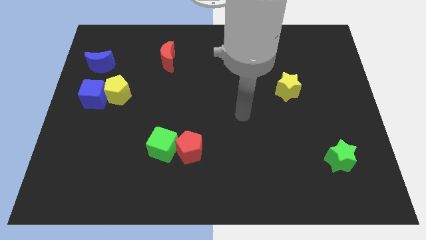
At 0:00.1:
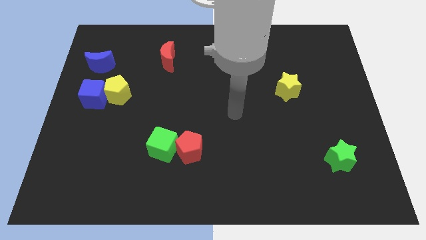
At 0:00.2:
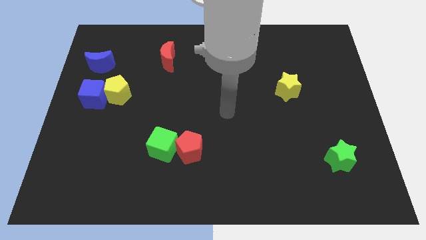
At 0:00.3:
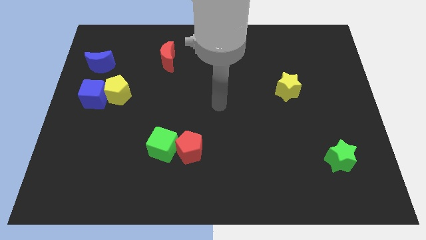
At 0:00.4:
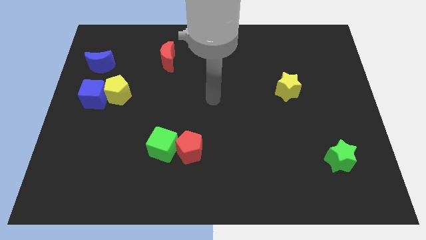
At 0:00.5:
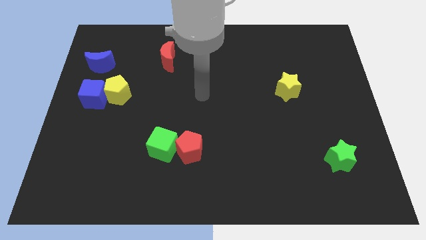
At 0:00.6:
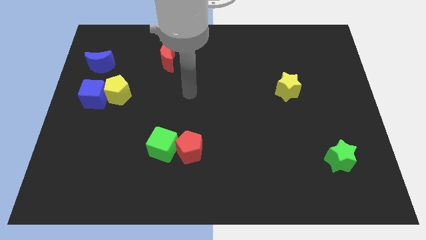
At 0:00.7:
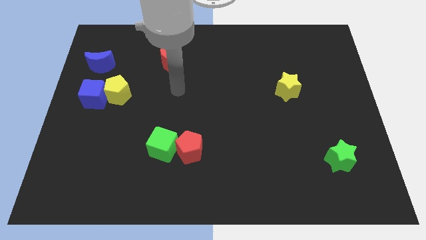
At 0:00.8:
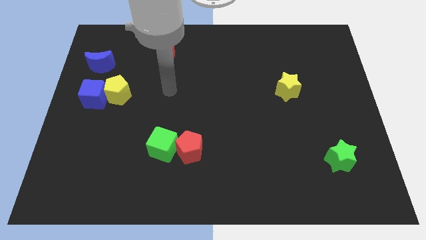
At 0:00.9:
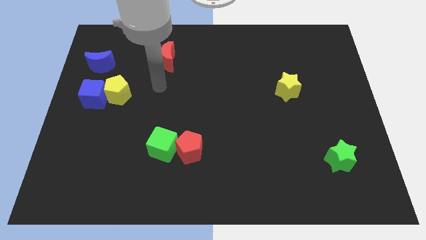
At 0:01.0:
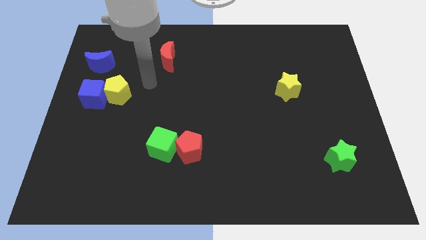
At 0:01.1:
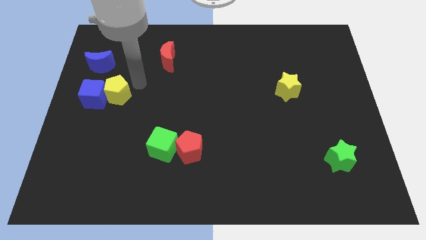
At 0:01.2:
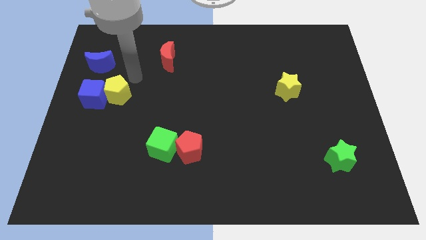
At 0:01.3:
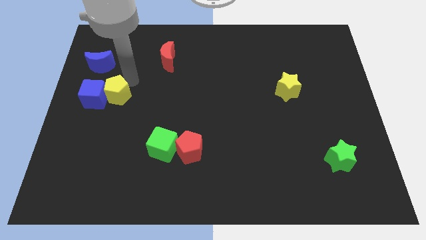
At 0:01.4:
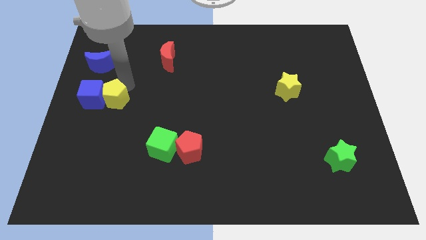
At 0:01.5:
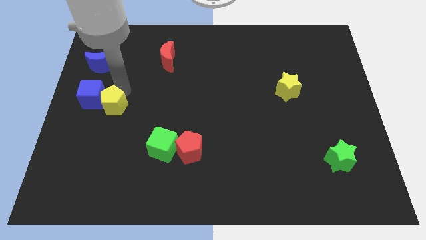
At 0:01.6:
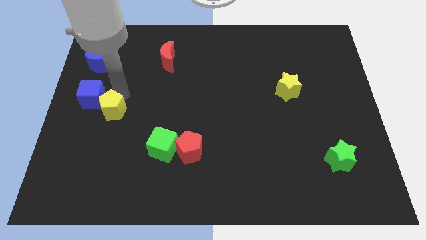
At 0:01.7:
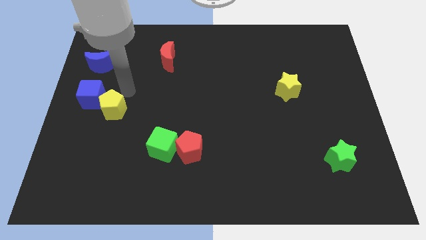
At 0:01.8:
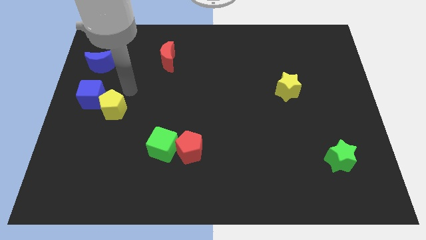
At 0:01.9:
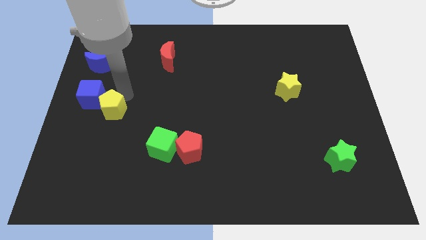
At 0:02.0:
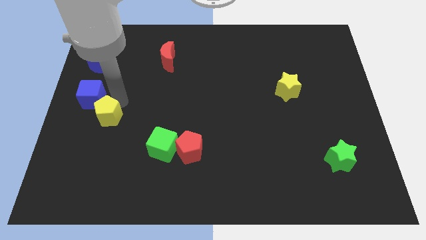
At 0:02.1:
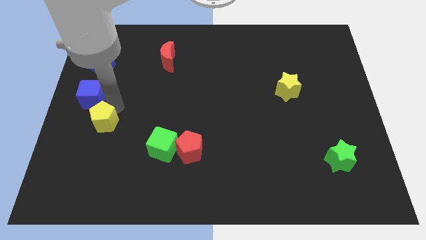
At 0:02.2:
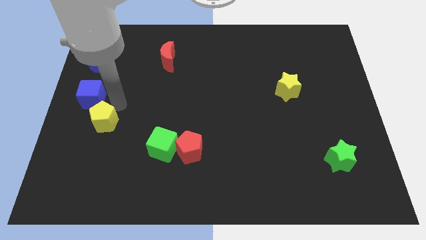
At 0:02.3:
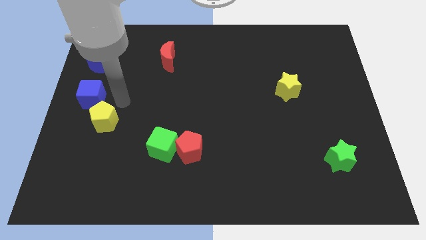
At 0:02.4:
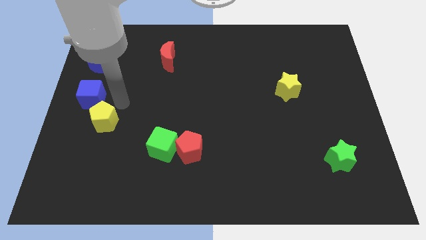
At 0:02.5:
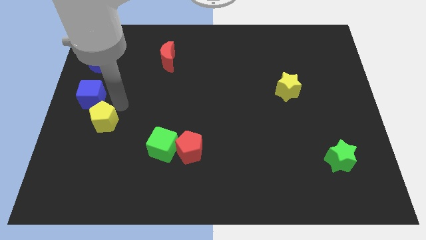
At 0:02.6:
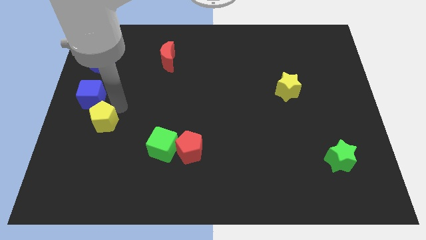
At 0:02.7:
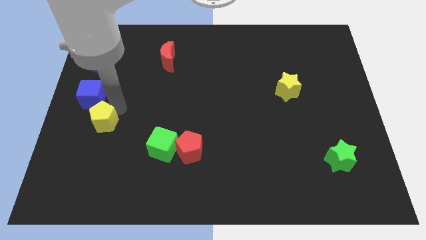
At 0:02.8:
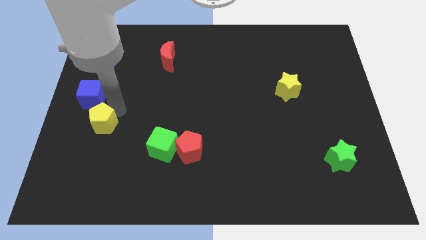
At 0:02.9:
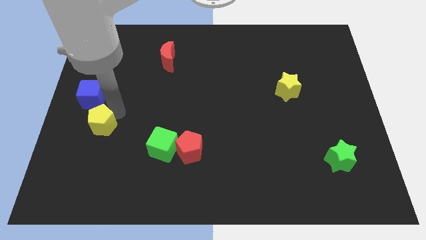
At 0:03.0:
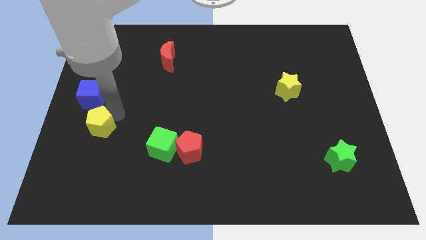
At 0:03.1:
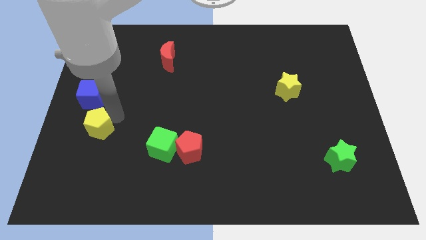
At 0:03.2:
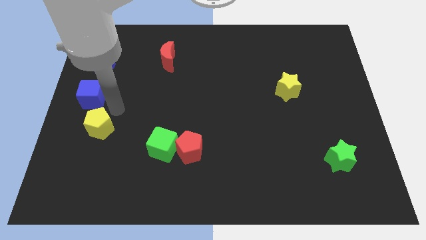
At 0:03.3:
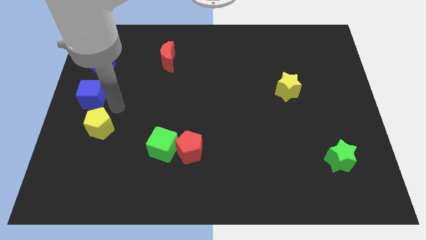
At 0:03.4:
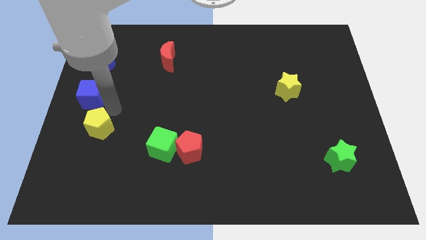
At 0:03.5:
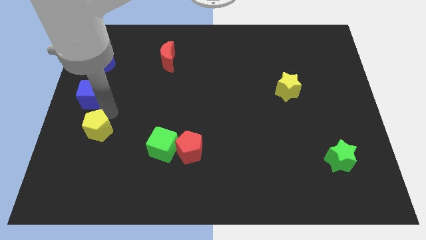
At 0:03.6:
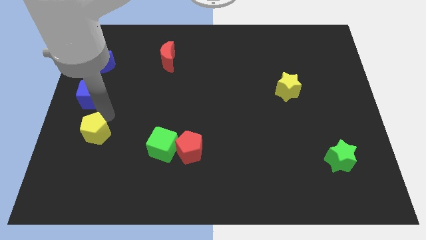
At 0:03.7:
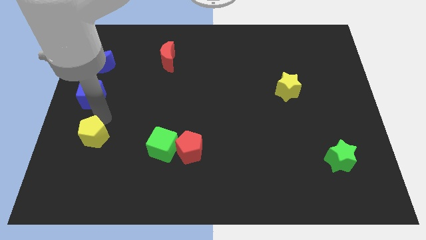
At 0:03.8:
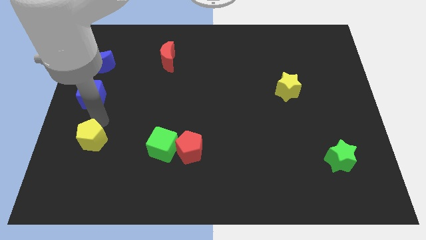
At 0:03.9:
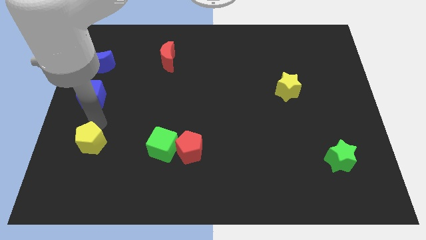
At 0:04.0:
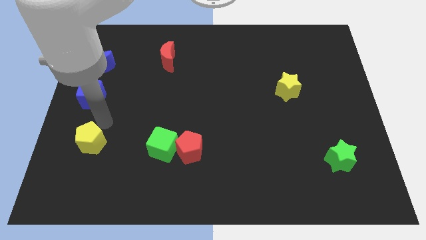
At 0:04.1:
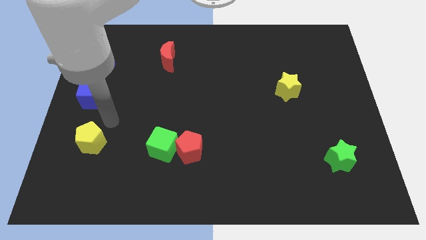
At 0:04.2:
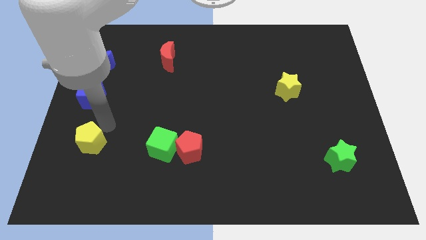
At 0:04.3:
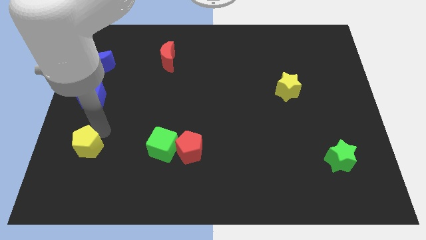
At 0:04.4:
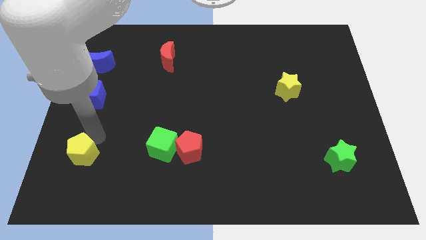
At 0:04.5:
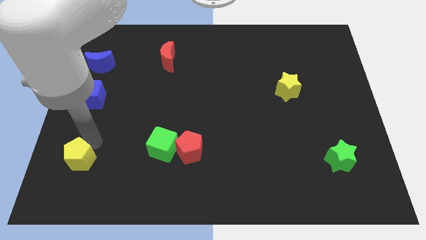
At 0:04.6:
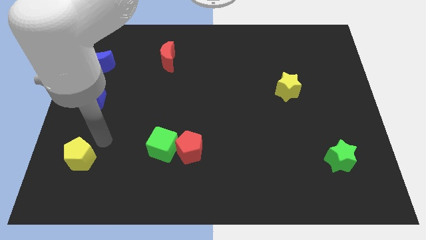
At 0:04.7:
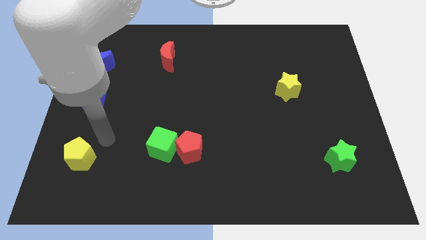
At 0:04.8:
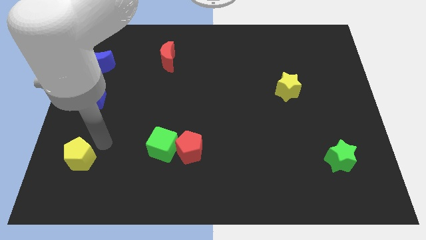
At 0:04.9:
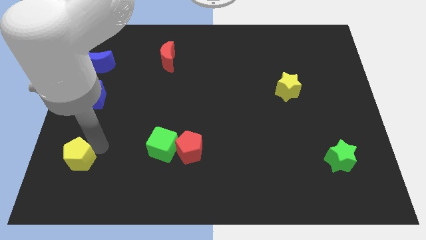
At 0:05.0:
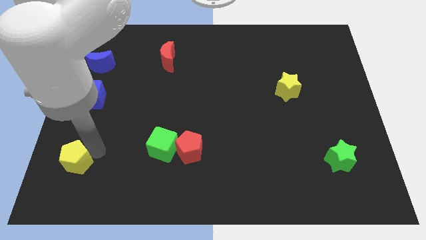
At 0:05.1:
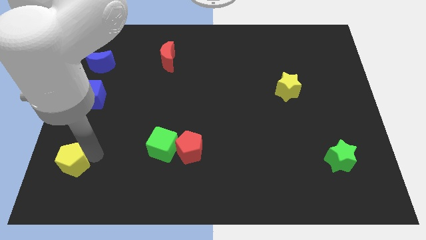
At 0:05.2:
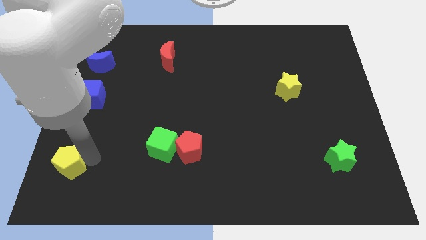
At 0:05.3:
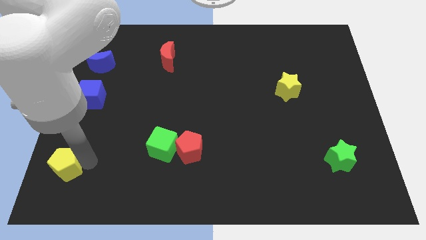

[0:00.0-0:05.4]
push the yellow pentagon to the bottom left of the board

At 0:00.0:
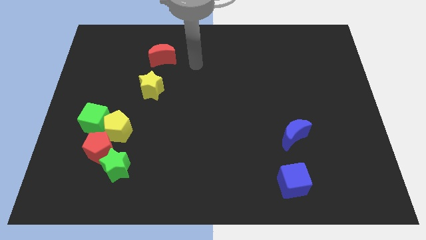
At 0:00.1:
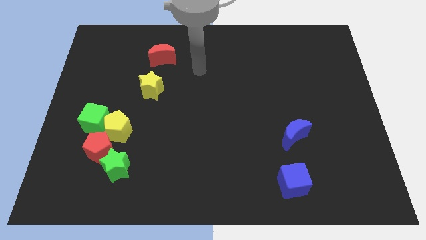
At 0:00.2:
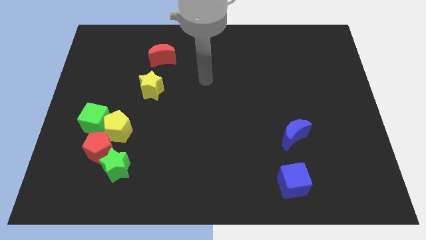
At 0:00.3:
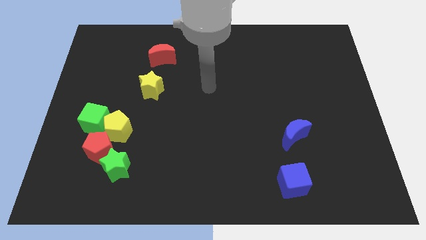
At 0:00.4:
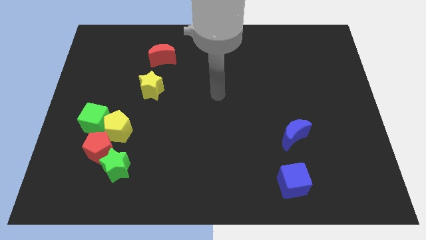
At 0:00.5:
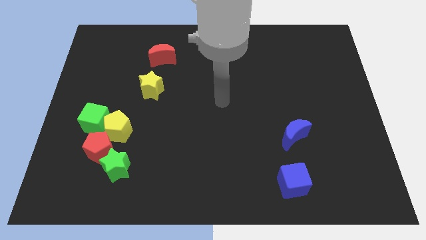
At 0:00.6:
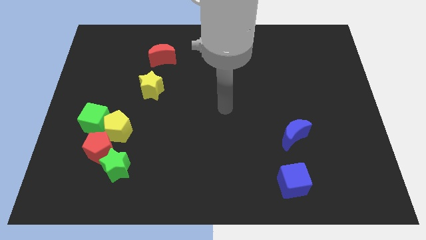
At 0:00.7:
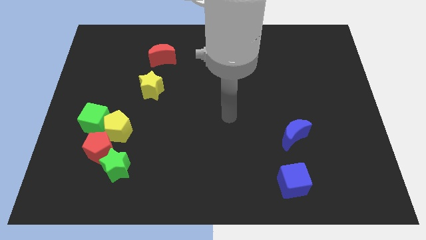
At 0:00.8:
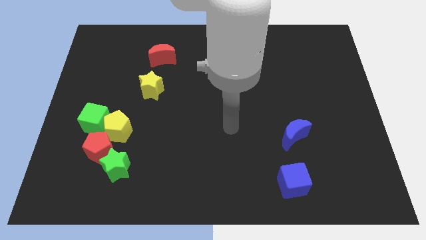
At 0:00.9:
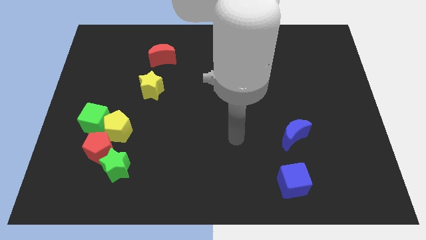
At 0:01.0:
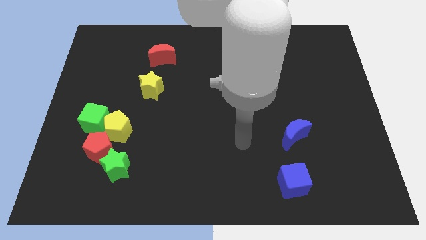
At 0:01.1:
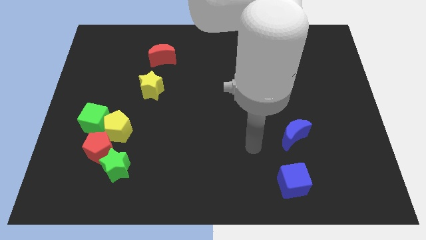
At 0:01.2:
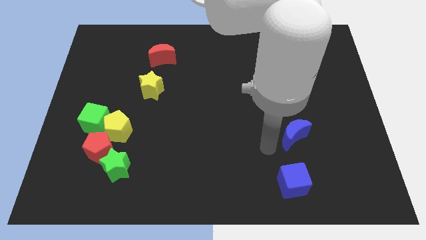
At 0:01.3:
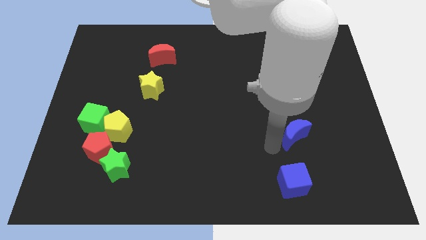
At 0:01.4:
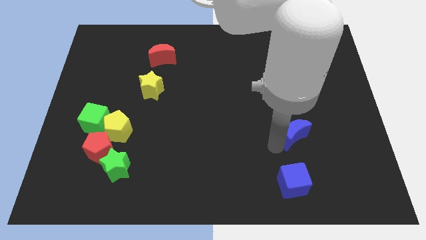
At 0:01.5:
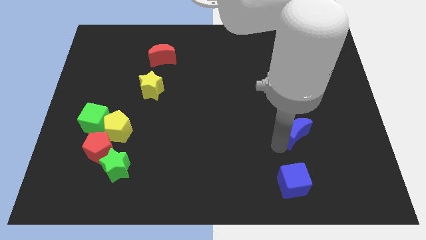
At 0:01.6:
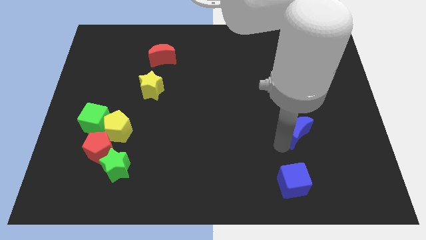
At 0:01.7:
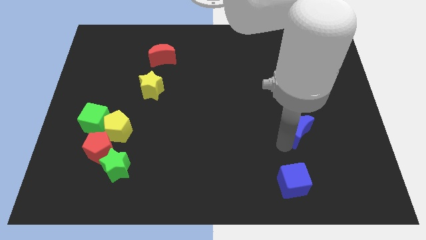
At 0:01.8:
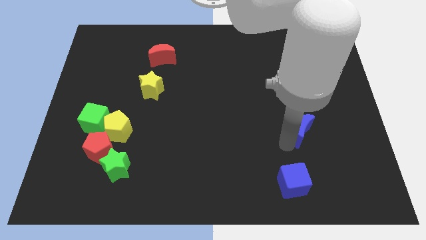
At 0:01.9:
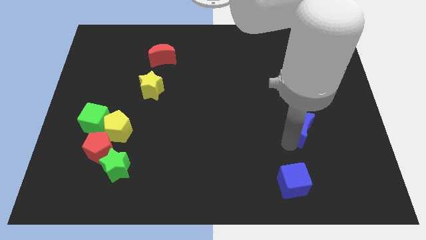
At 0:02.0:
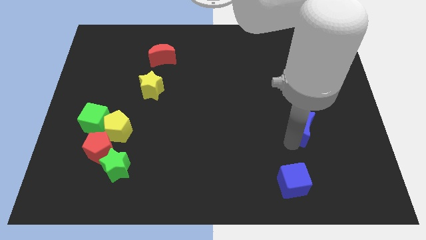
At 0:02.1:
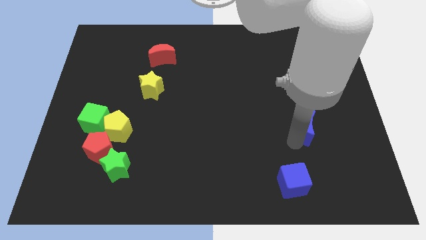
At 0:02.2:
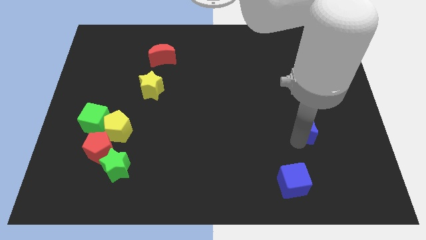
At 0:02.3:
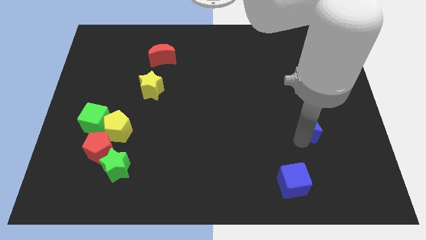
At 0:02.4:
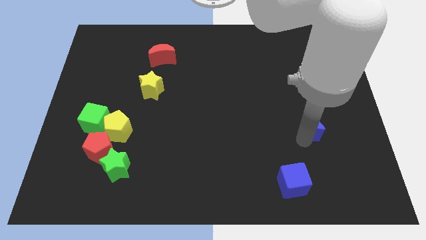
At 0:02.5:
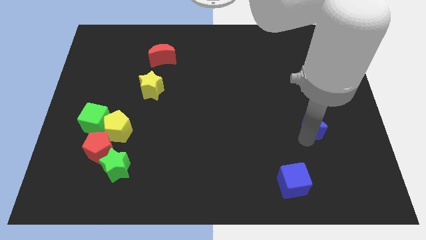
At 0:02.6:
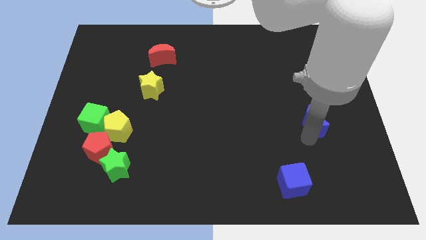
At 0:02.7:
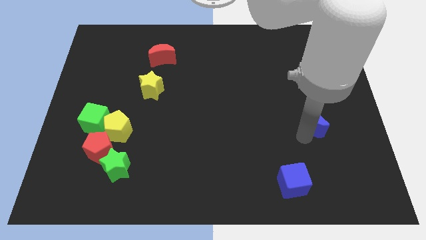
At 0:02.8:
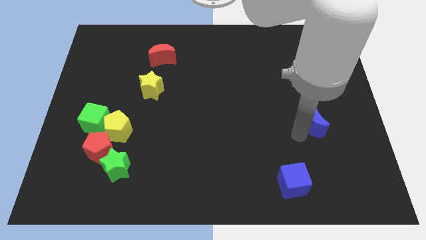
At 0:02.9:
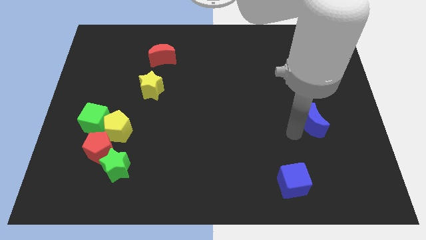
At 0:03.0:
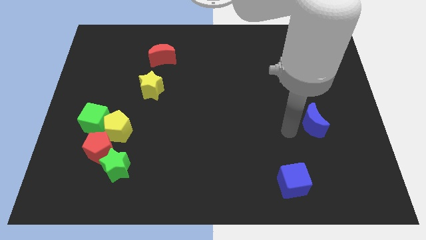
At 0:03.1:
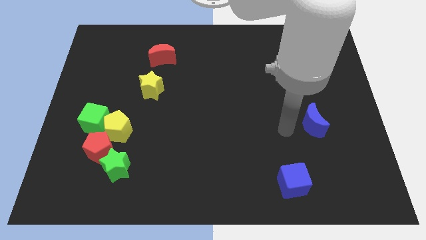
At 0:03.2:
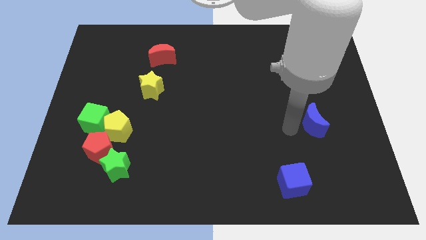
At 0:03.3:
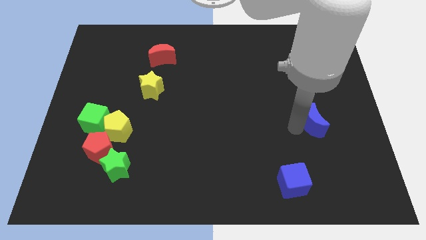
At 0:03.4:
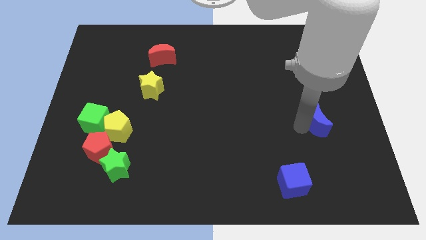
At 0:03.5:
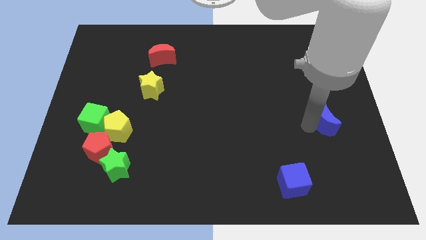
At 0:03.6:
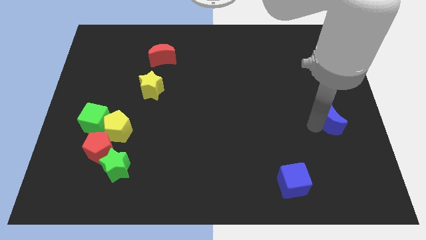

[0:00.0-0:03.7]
push the blue moon to the center right
